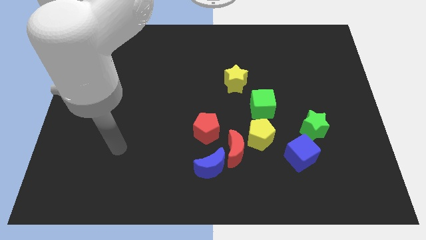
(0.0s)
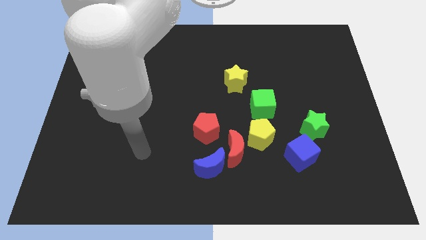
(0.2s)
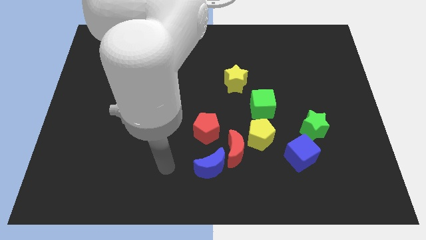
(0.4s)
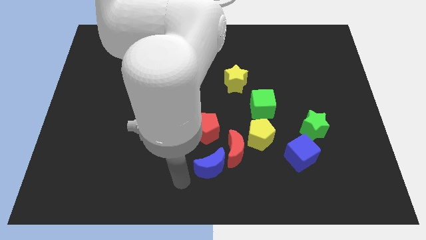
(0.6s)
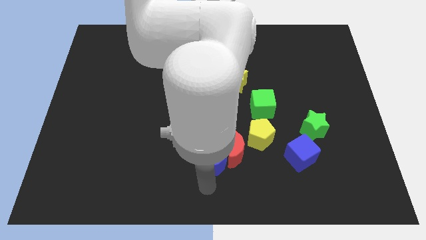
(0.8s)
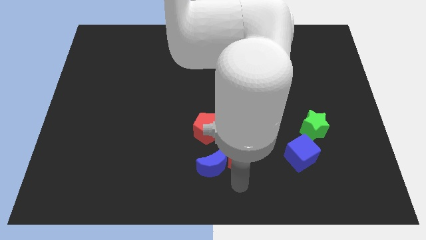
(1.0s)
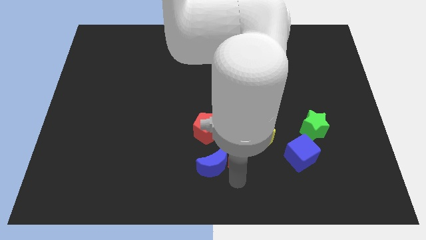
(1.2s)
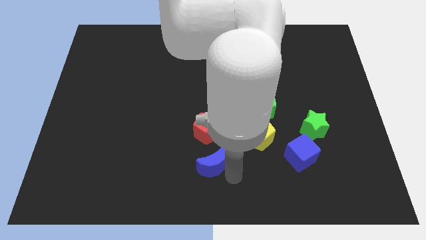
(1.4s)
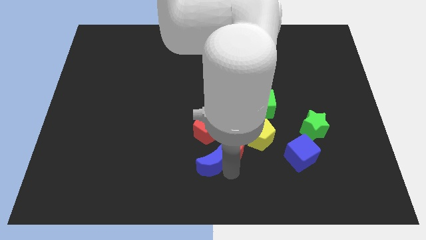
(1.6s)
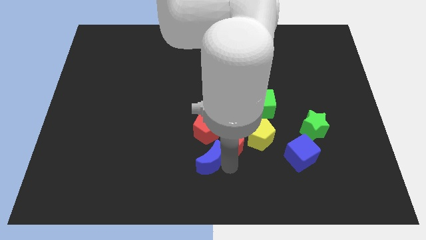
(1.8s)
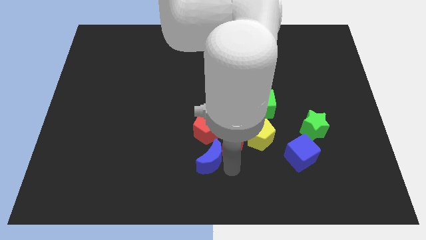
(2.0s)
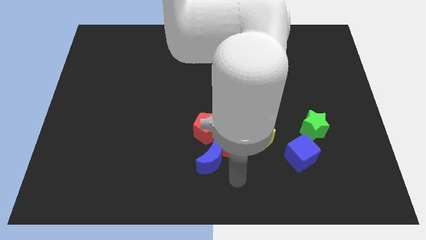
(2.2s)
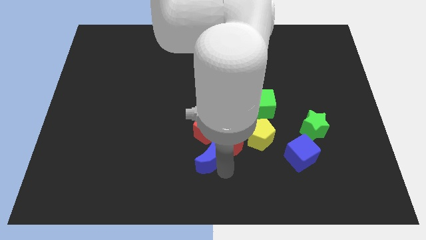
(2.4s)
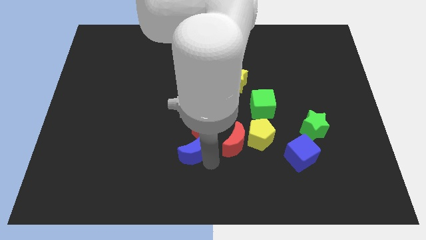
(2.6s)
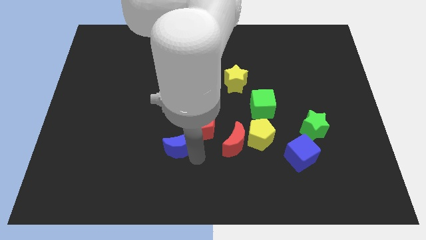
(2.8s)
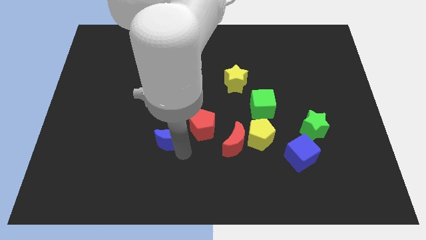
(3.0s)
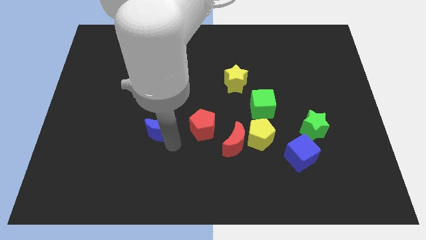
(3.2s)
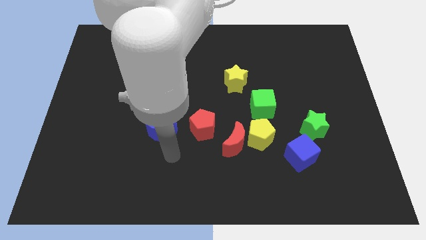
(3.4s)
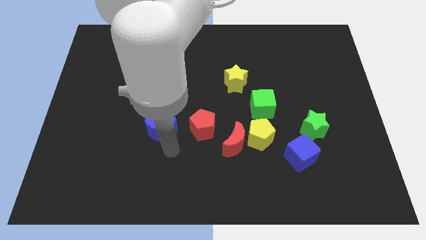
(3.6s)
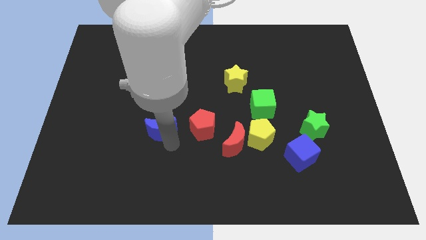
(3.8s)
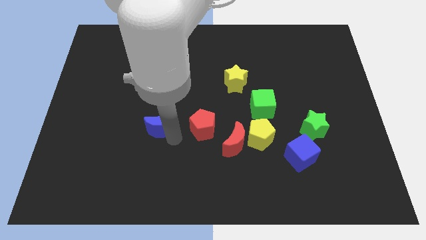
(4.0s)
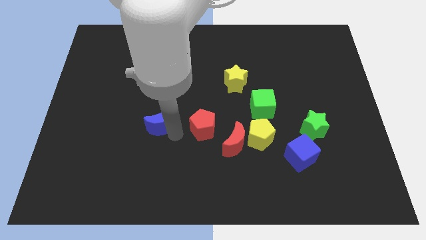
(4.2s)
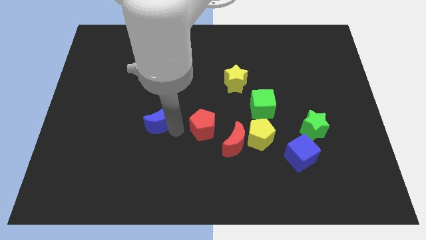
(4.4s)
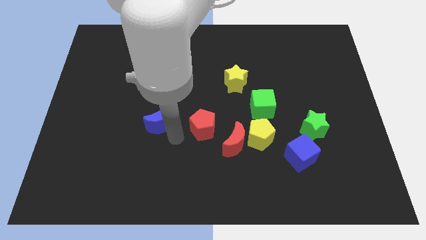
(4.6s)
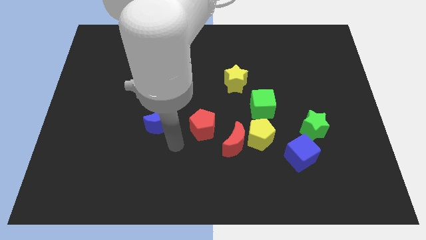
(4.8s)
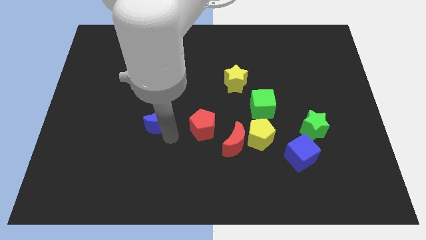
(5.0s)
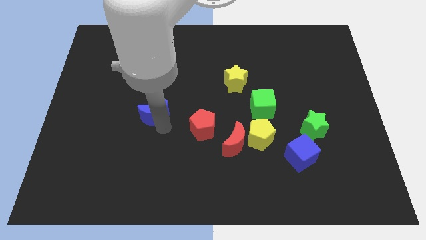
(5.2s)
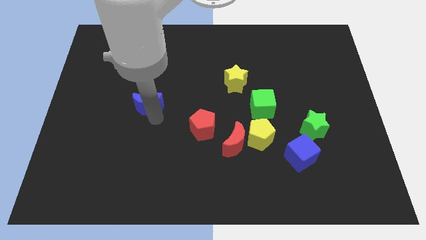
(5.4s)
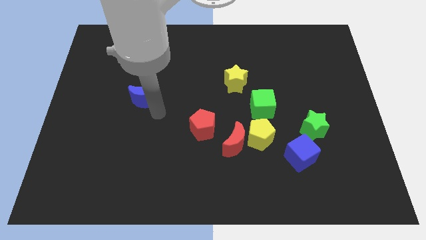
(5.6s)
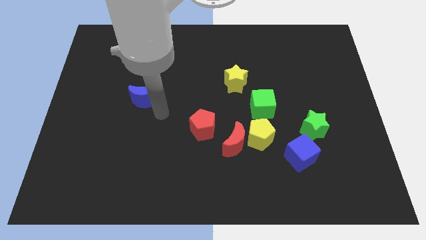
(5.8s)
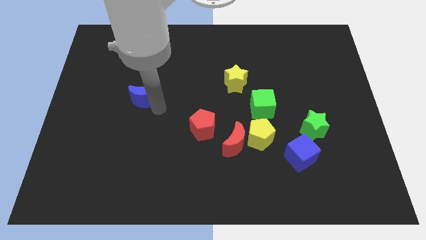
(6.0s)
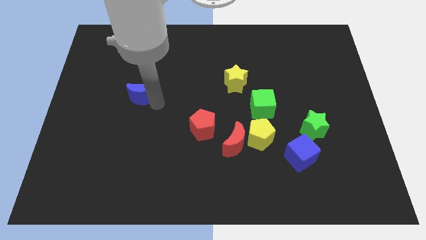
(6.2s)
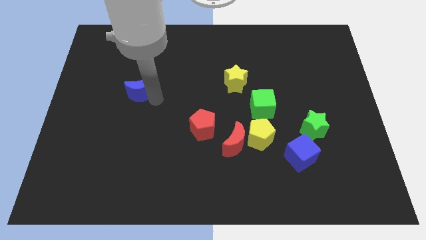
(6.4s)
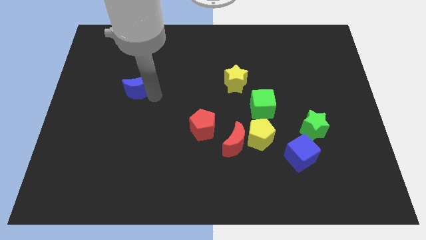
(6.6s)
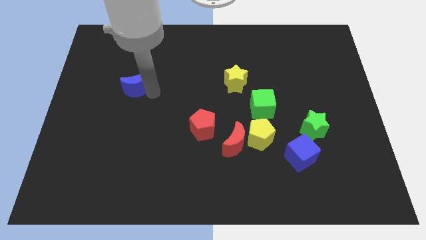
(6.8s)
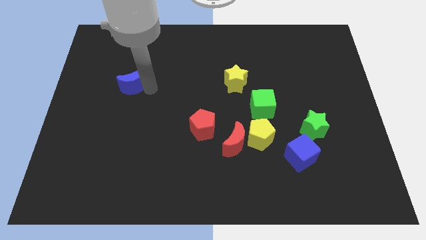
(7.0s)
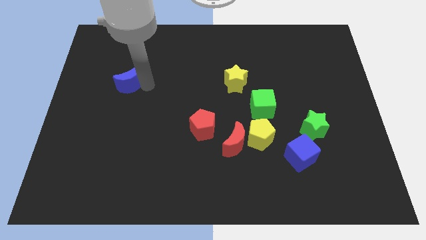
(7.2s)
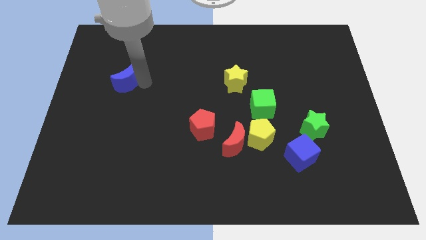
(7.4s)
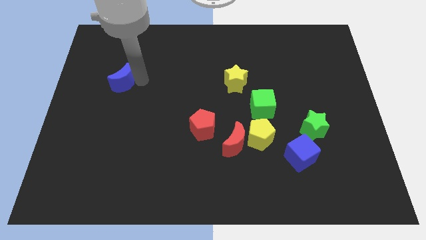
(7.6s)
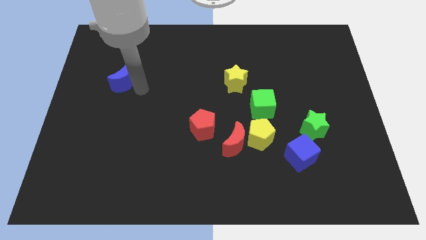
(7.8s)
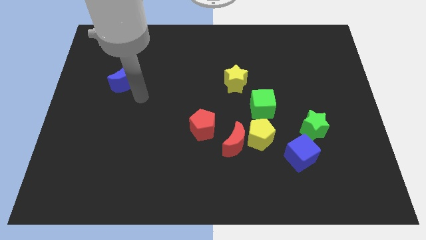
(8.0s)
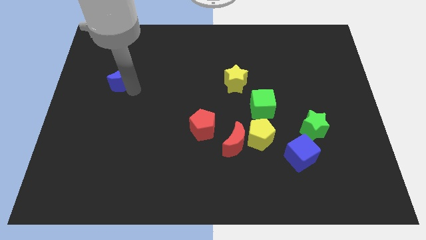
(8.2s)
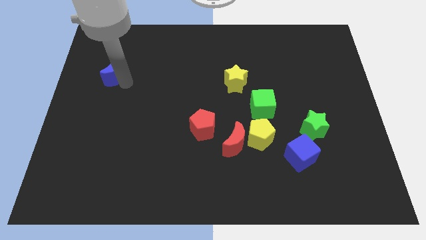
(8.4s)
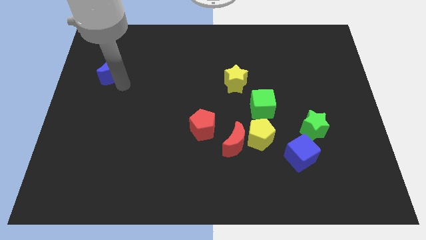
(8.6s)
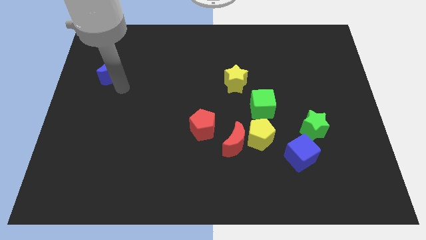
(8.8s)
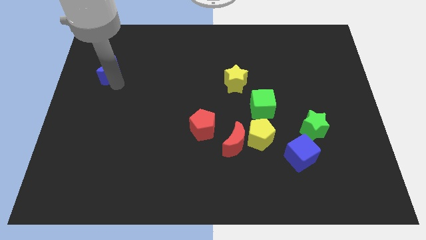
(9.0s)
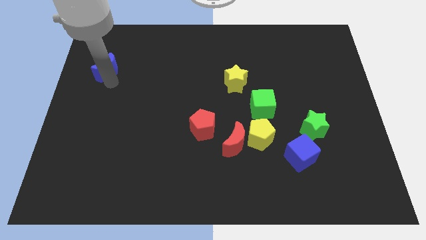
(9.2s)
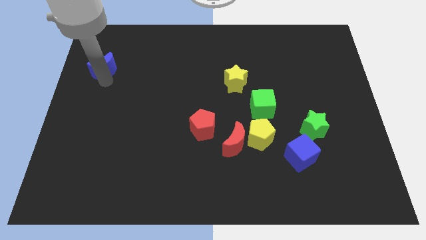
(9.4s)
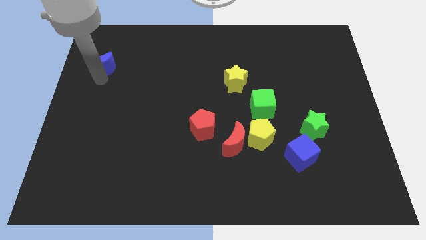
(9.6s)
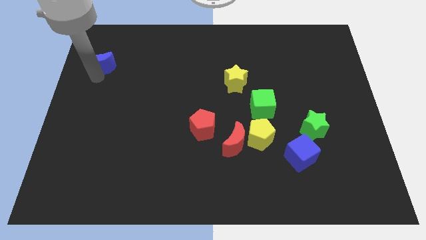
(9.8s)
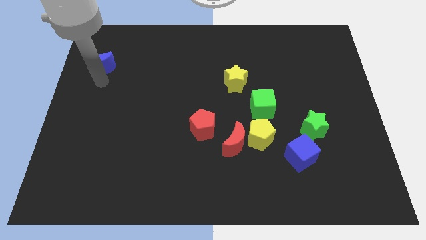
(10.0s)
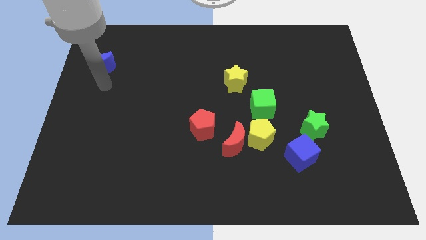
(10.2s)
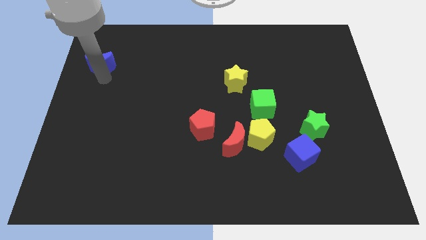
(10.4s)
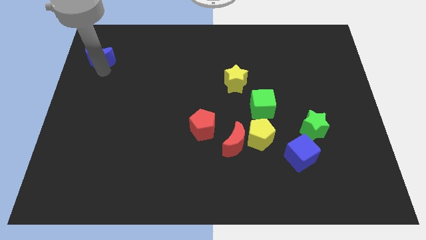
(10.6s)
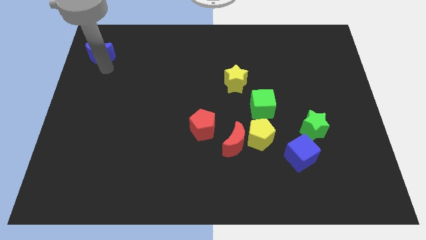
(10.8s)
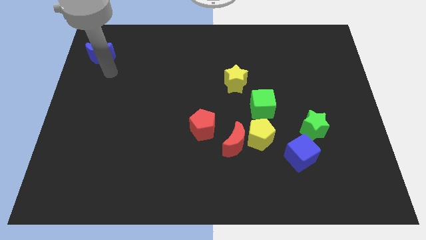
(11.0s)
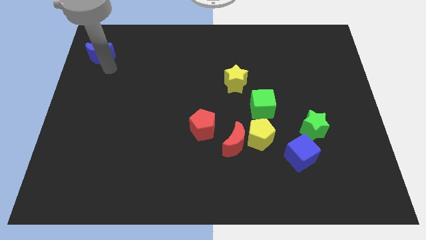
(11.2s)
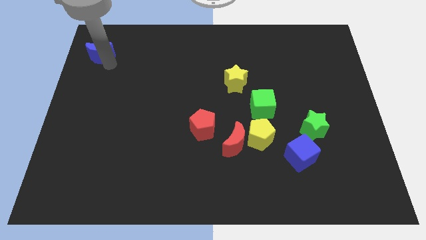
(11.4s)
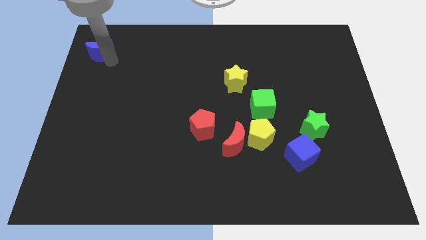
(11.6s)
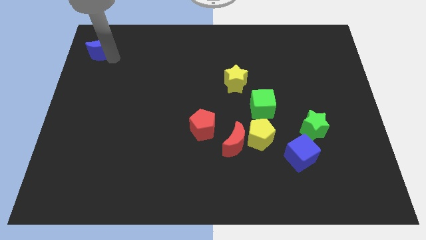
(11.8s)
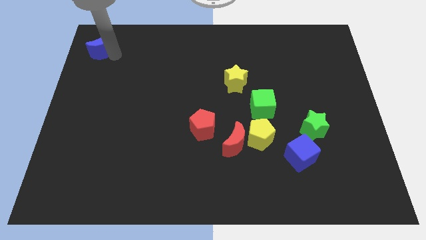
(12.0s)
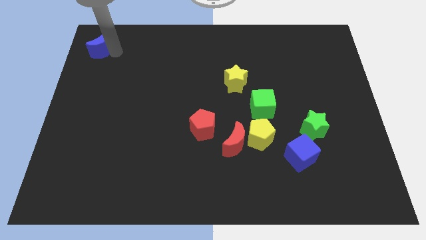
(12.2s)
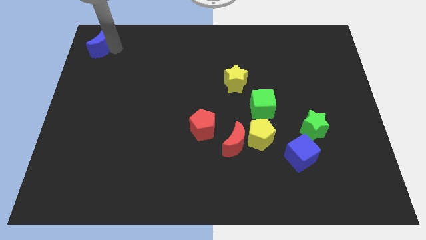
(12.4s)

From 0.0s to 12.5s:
slide the blue moon to the top left of the board
